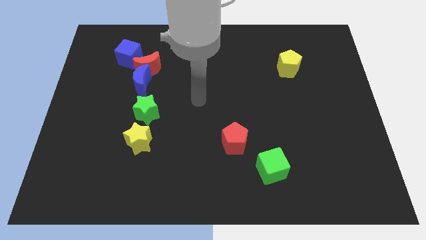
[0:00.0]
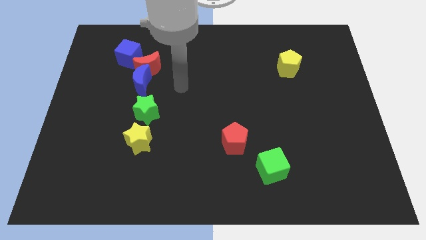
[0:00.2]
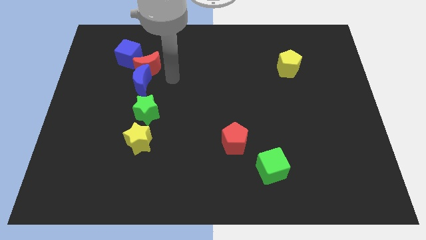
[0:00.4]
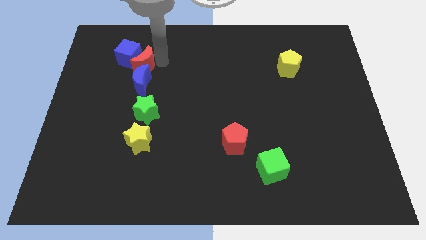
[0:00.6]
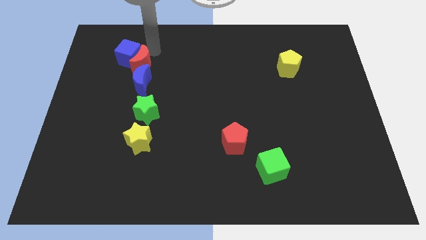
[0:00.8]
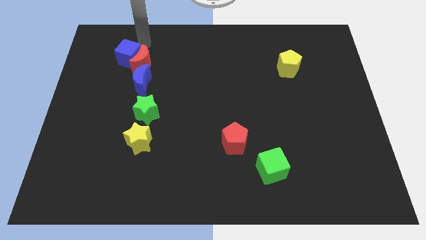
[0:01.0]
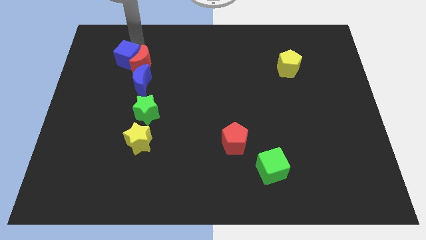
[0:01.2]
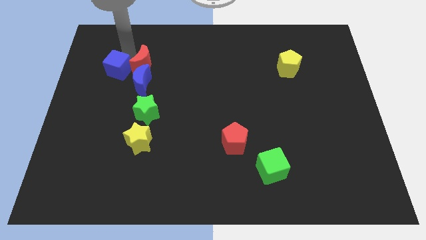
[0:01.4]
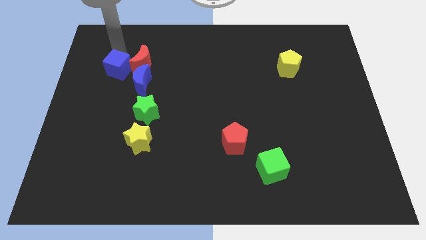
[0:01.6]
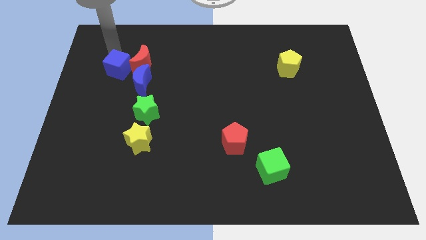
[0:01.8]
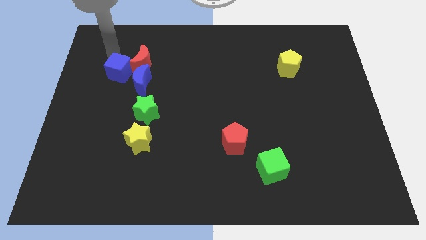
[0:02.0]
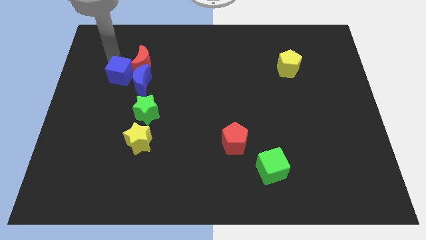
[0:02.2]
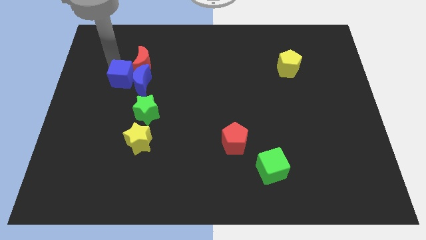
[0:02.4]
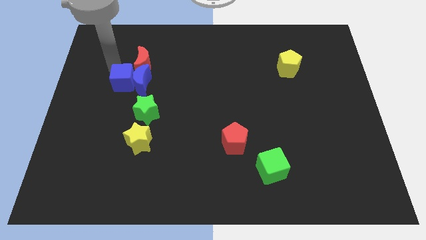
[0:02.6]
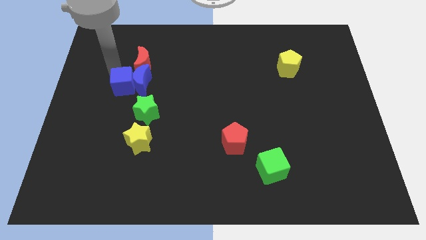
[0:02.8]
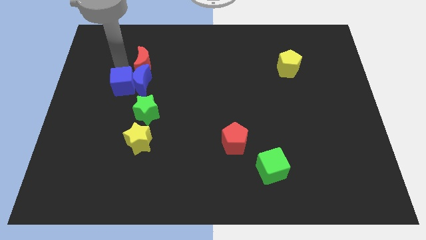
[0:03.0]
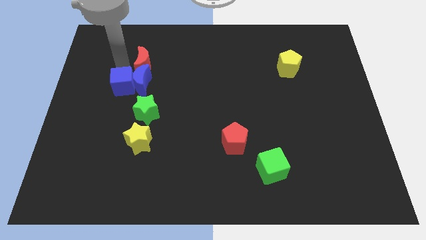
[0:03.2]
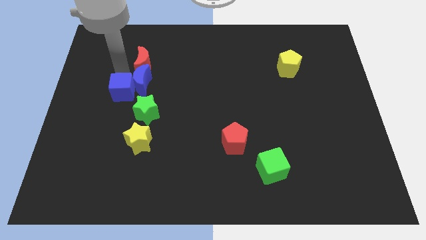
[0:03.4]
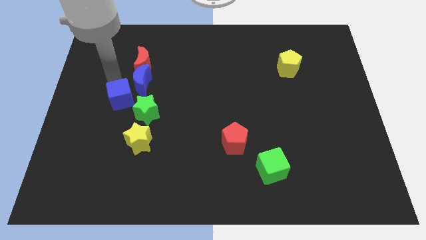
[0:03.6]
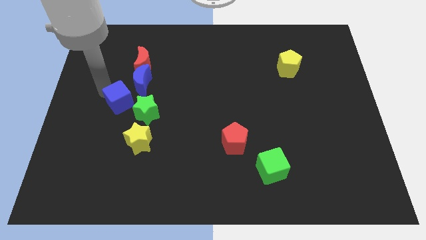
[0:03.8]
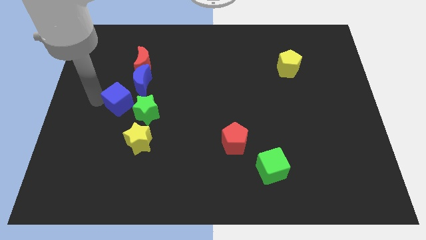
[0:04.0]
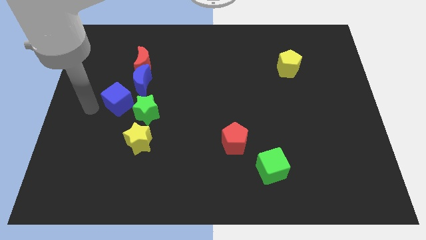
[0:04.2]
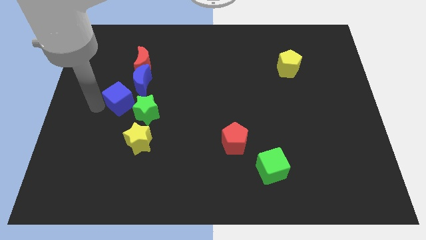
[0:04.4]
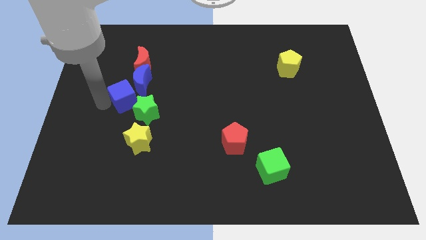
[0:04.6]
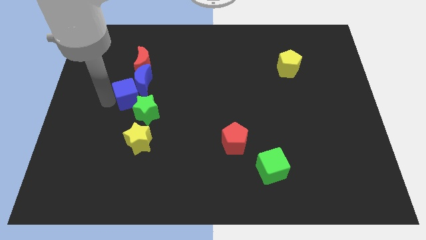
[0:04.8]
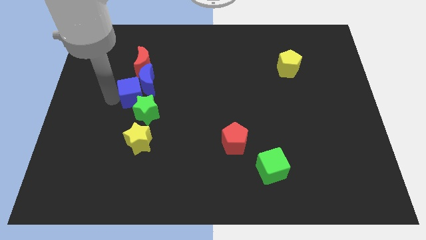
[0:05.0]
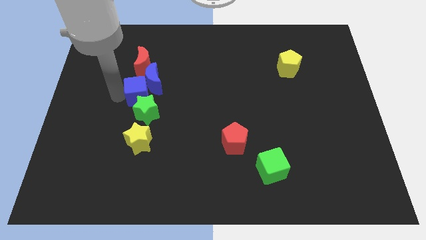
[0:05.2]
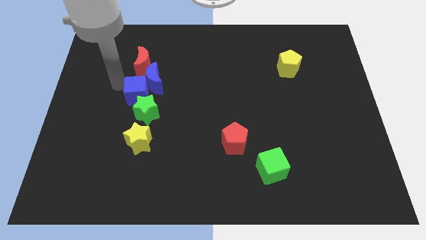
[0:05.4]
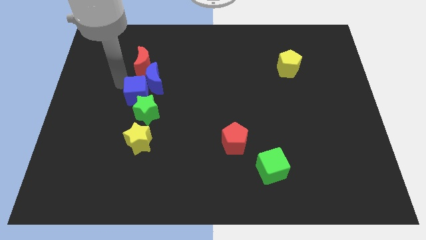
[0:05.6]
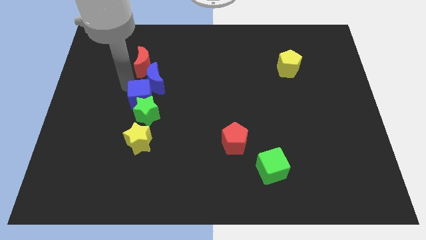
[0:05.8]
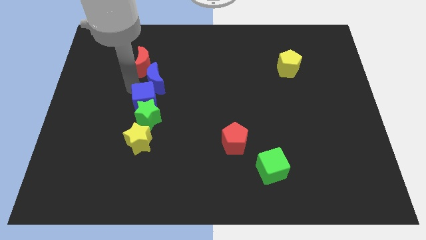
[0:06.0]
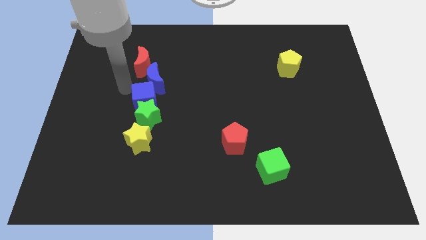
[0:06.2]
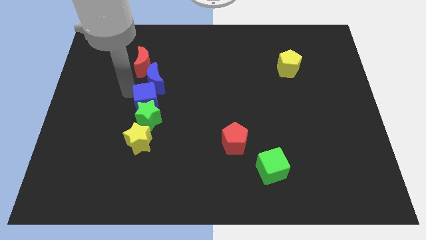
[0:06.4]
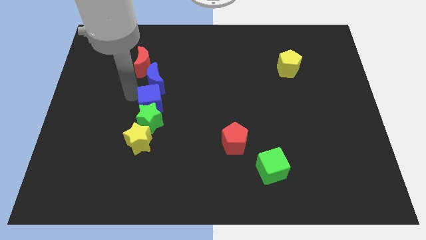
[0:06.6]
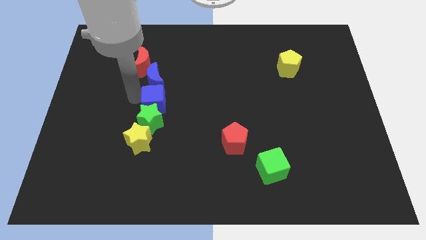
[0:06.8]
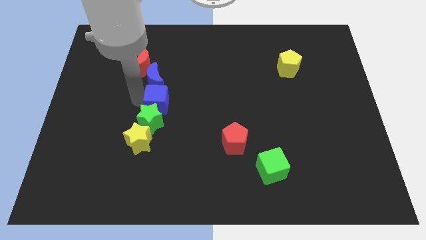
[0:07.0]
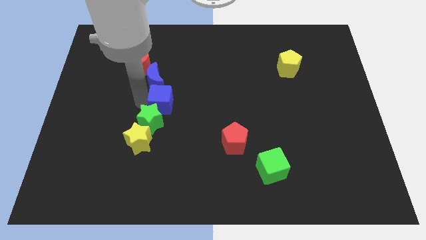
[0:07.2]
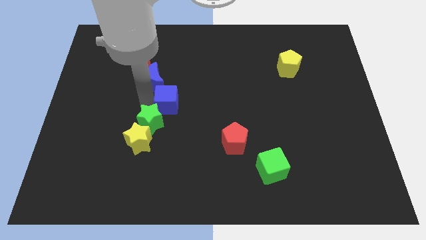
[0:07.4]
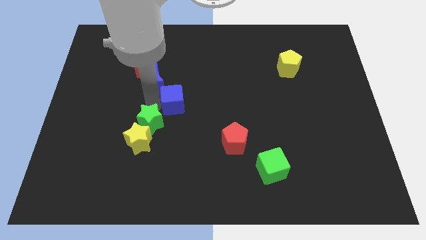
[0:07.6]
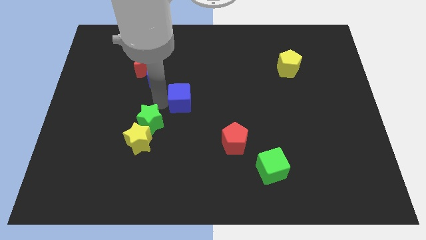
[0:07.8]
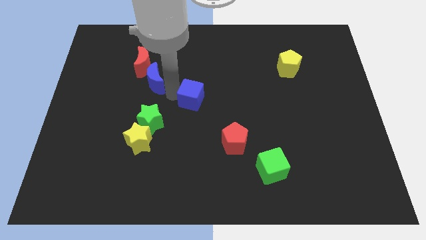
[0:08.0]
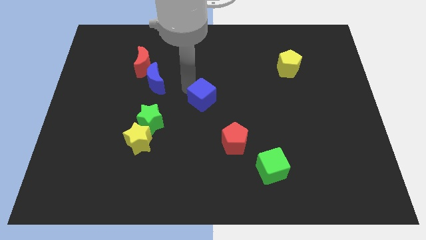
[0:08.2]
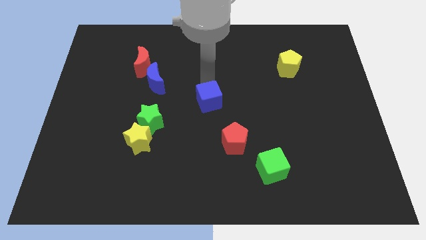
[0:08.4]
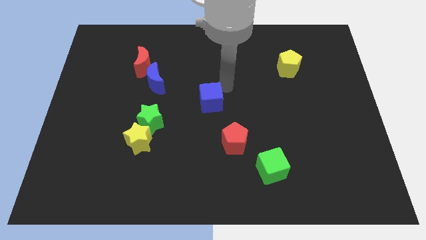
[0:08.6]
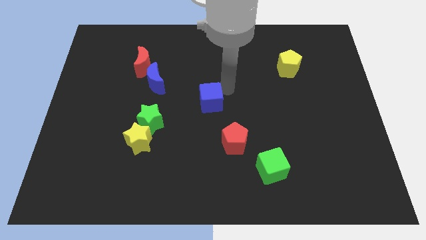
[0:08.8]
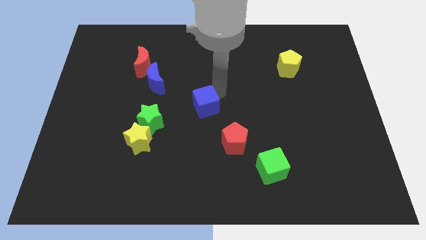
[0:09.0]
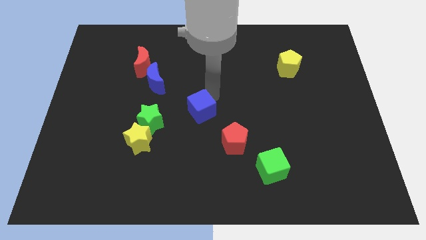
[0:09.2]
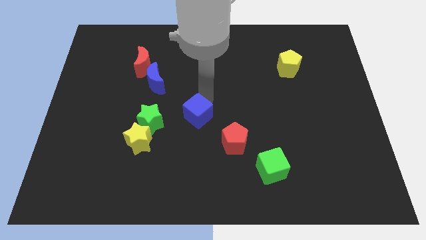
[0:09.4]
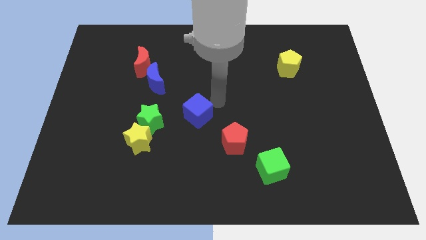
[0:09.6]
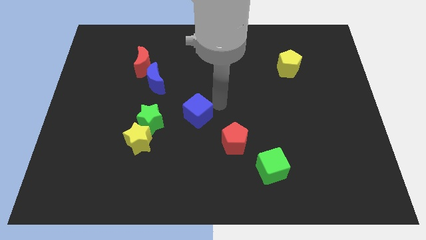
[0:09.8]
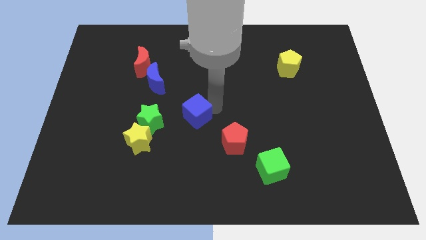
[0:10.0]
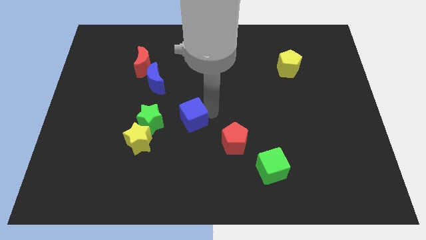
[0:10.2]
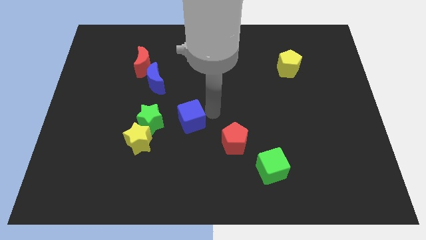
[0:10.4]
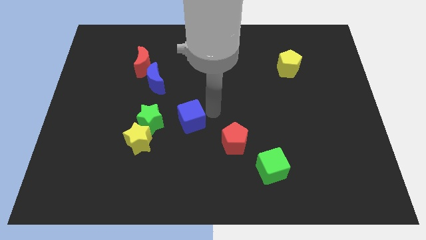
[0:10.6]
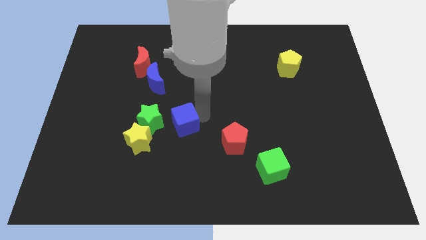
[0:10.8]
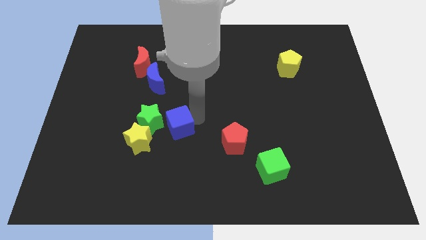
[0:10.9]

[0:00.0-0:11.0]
push the blue cube to the left side of the red pentagon

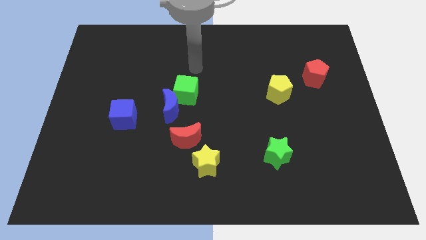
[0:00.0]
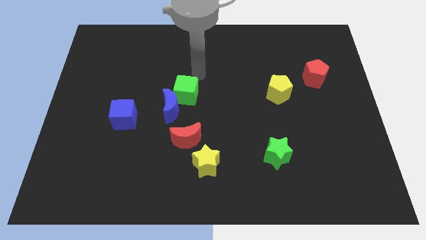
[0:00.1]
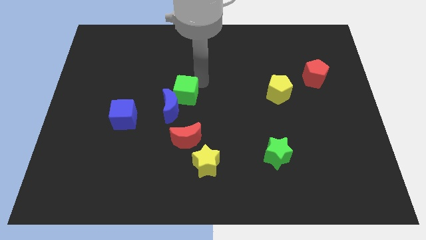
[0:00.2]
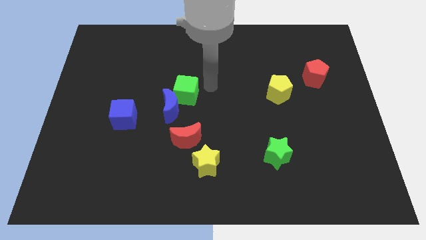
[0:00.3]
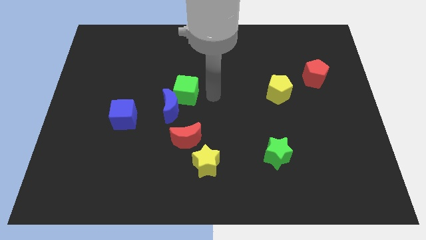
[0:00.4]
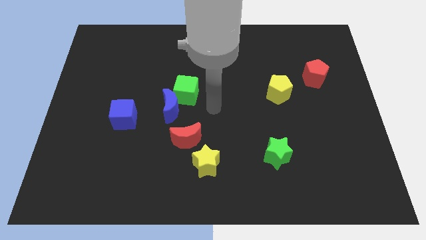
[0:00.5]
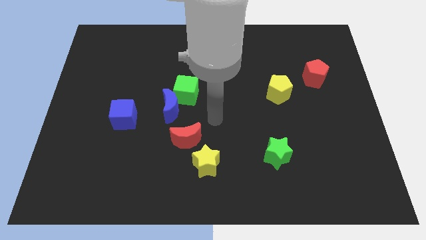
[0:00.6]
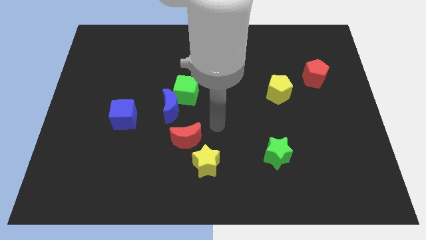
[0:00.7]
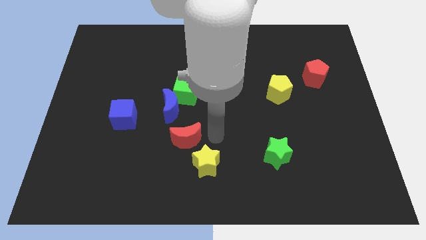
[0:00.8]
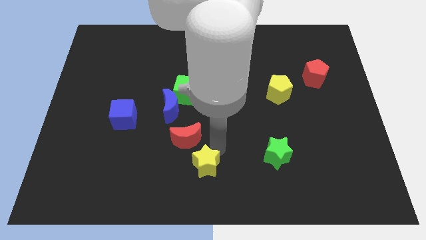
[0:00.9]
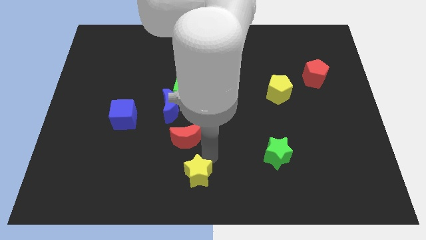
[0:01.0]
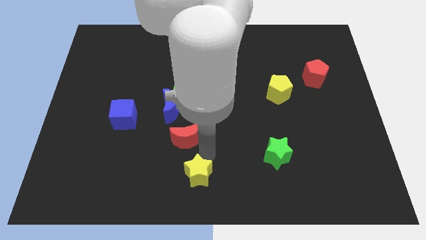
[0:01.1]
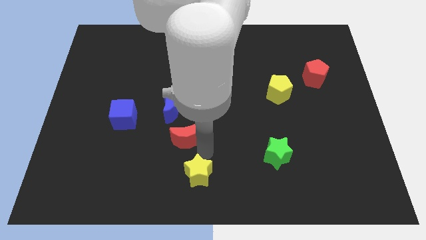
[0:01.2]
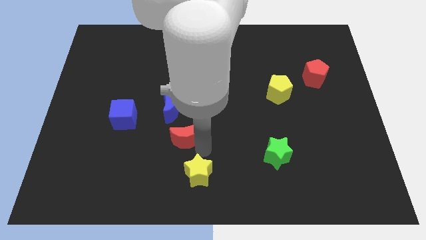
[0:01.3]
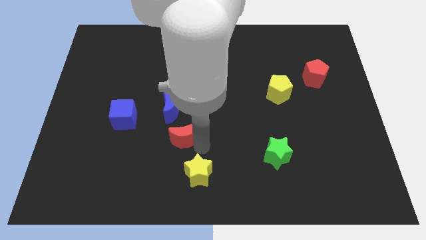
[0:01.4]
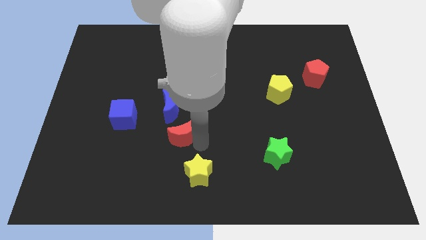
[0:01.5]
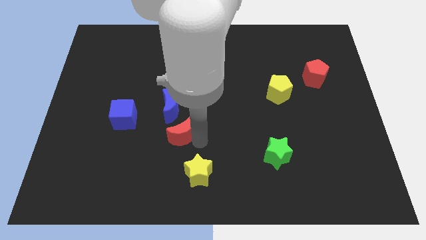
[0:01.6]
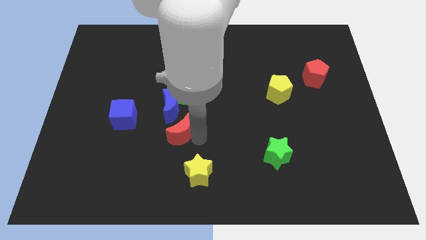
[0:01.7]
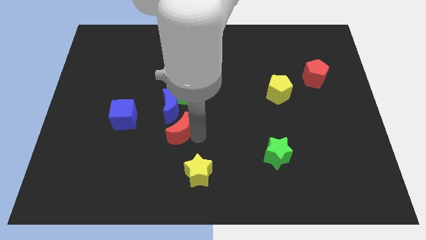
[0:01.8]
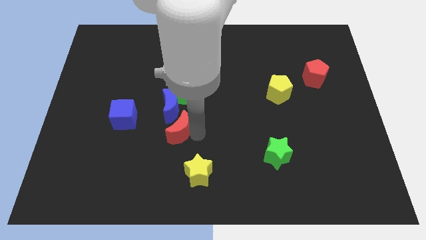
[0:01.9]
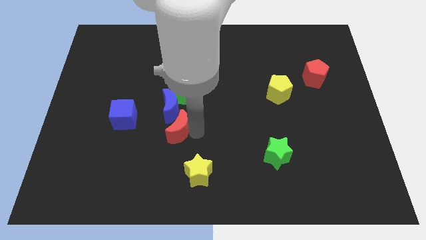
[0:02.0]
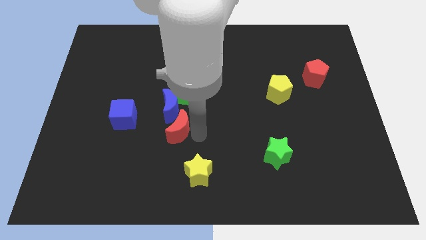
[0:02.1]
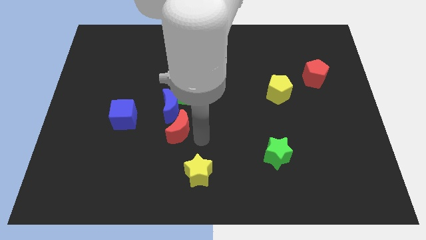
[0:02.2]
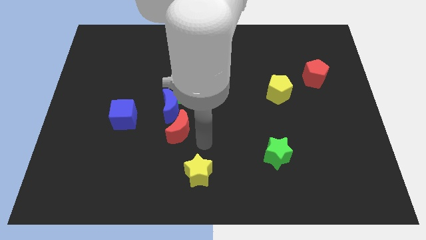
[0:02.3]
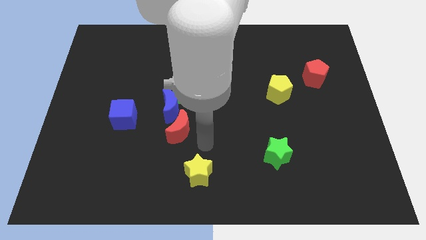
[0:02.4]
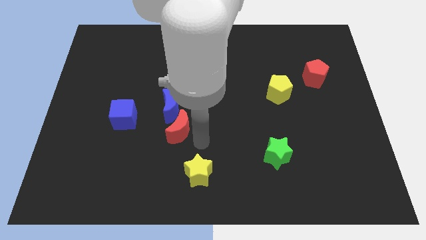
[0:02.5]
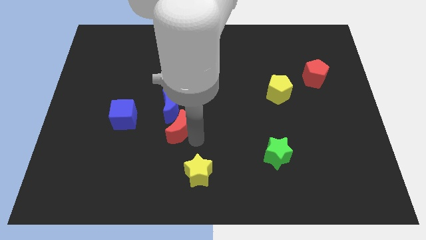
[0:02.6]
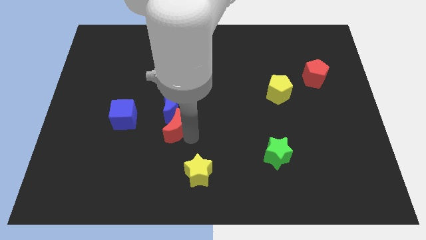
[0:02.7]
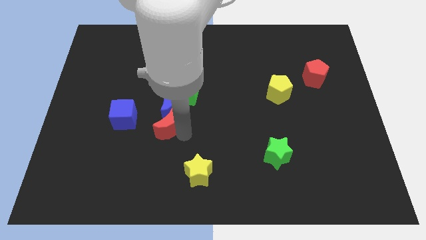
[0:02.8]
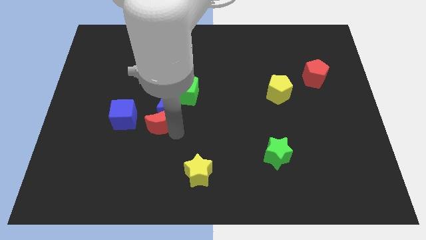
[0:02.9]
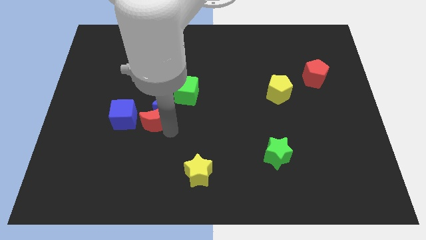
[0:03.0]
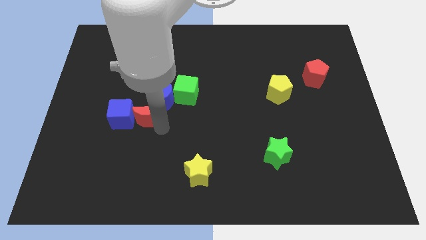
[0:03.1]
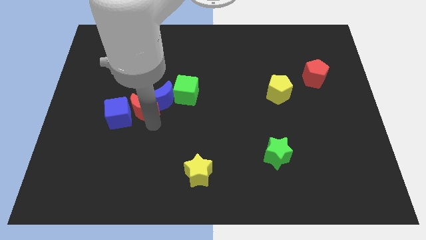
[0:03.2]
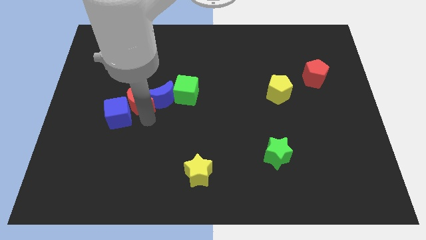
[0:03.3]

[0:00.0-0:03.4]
put the red moon to the left of the green cube
